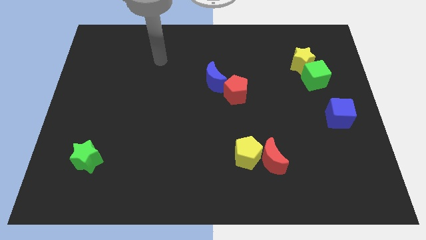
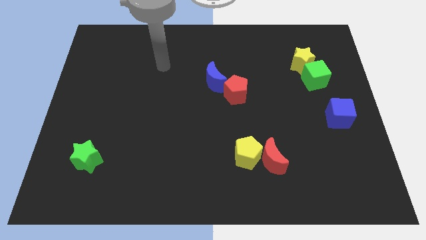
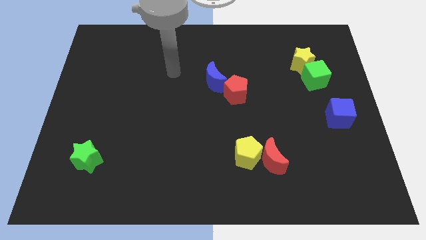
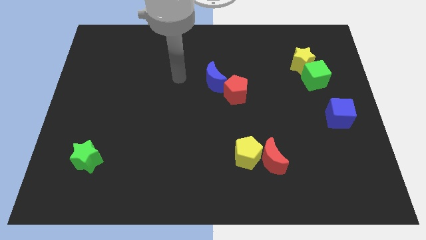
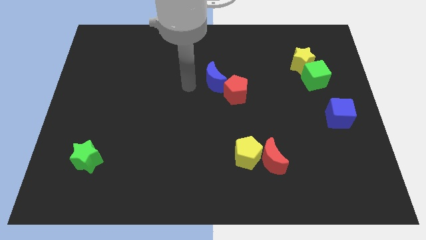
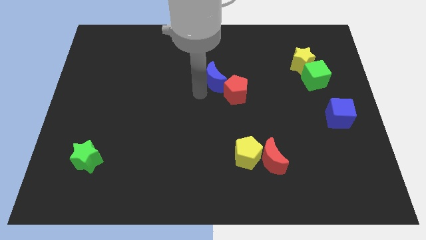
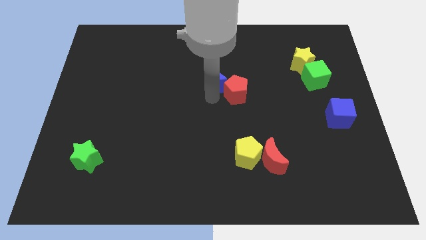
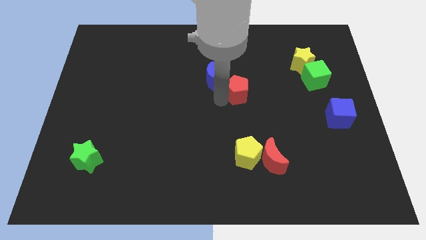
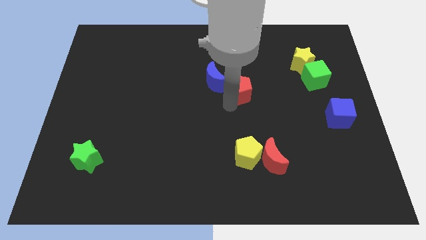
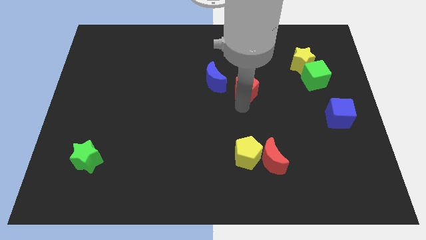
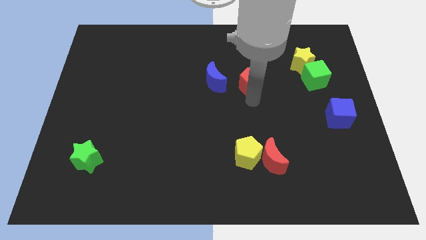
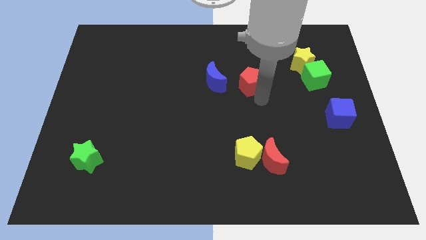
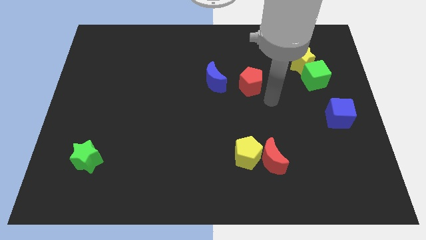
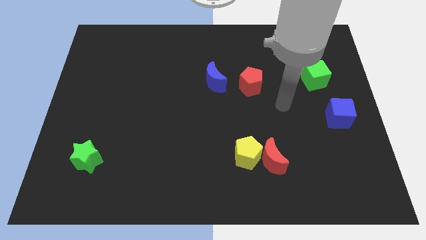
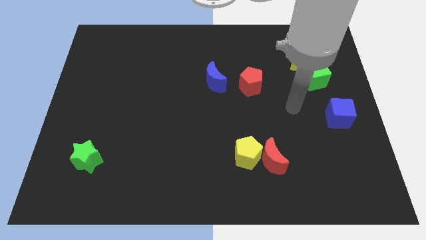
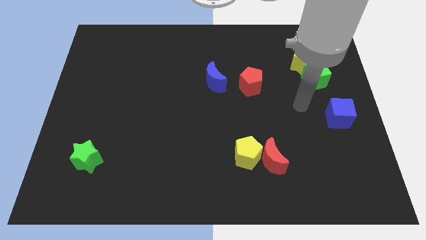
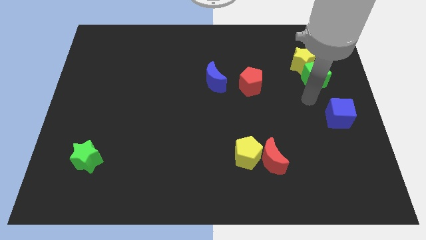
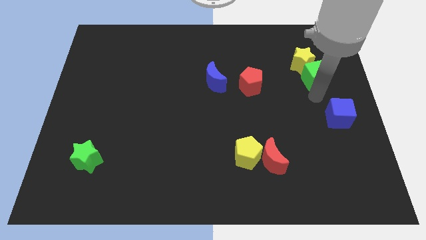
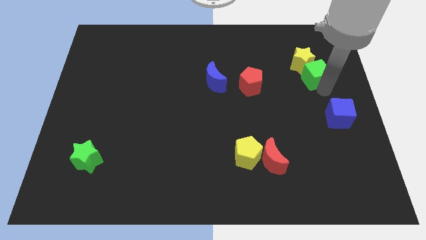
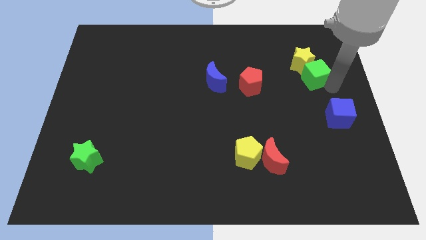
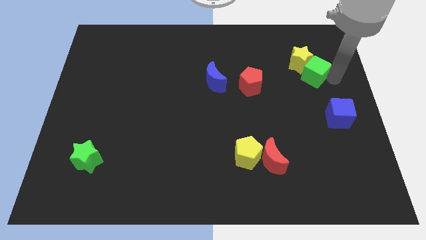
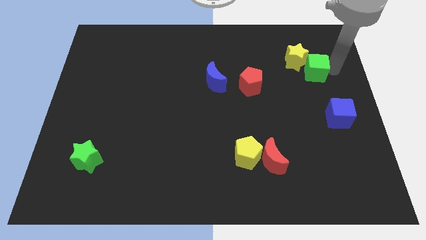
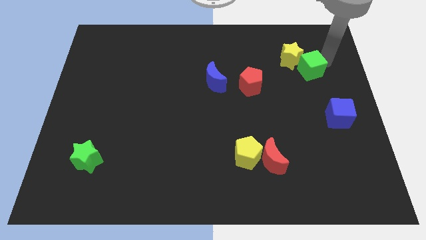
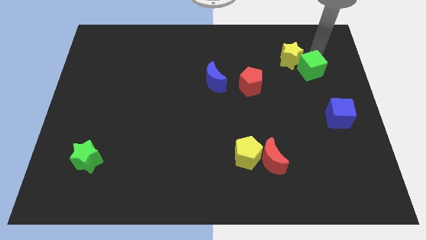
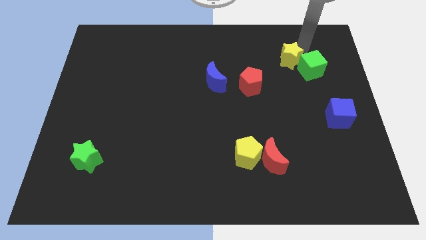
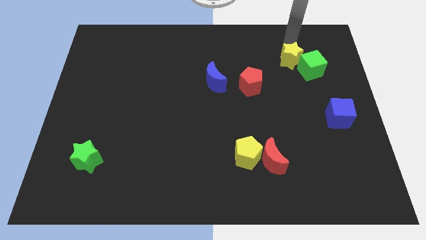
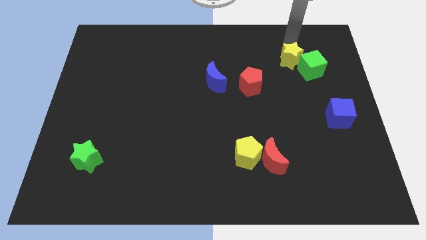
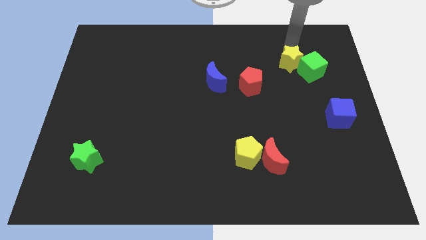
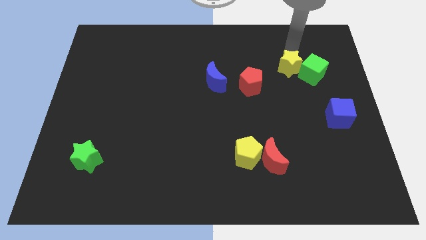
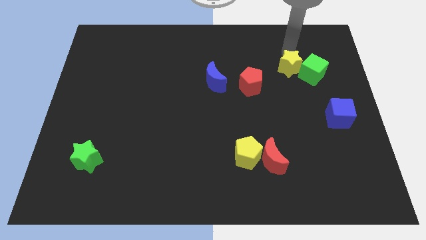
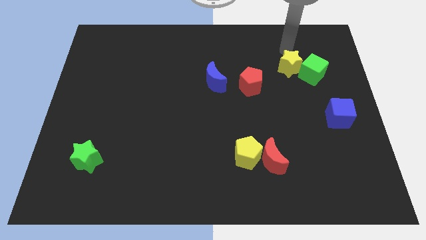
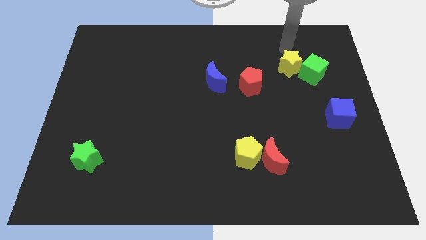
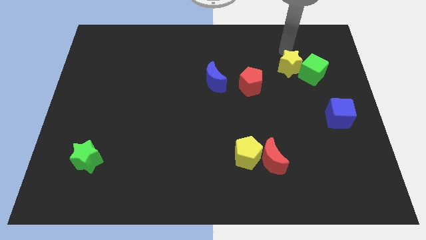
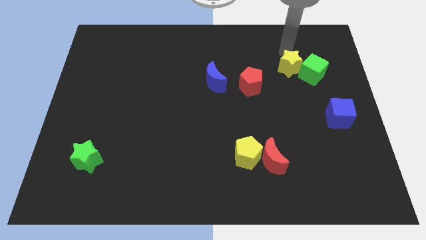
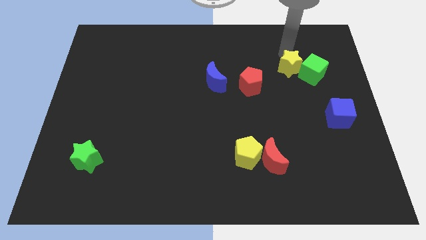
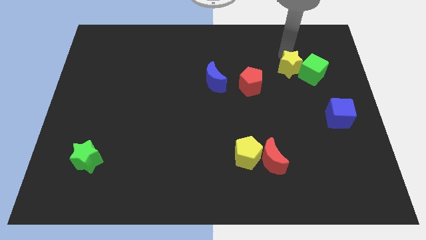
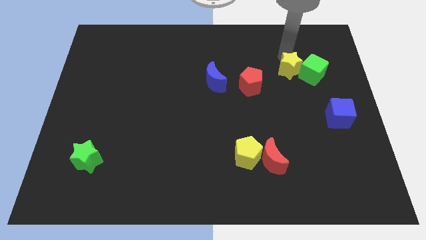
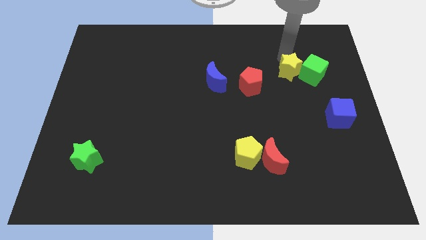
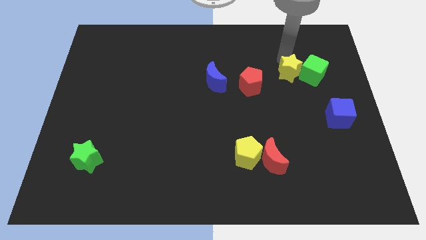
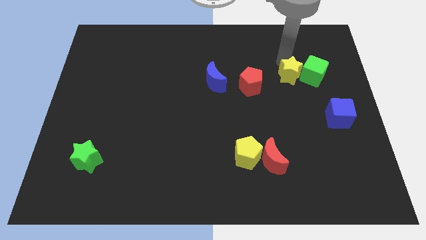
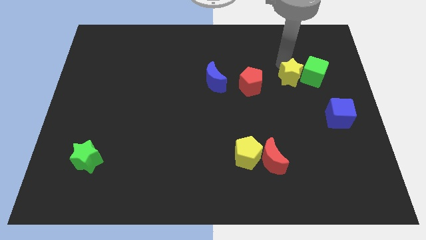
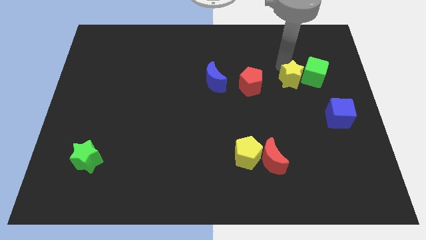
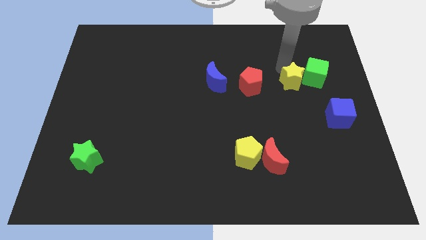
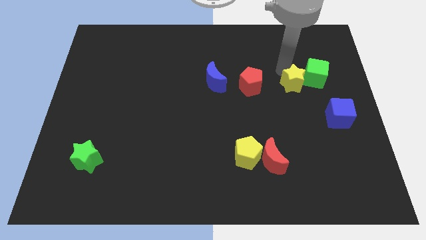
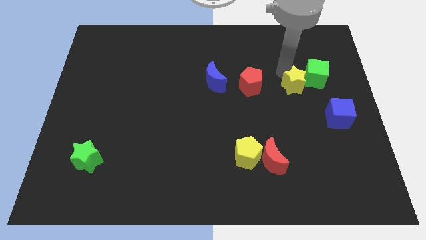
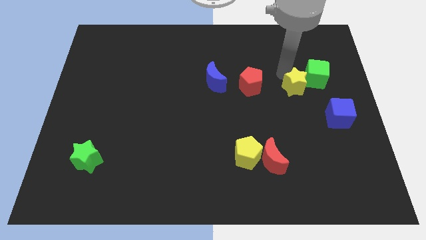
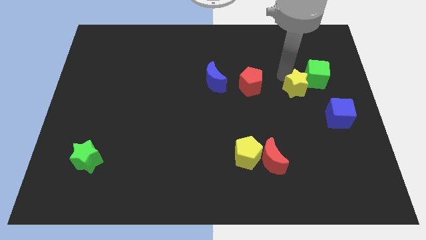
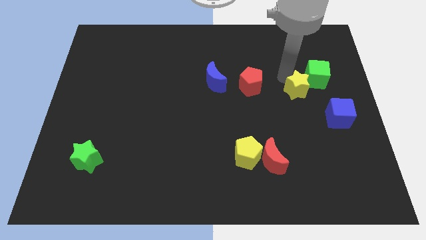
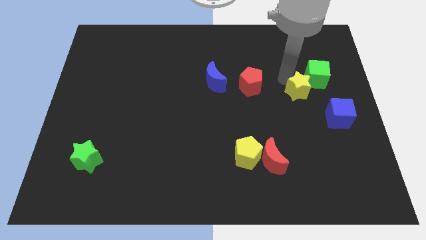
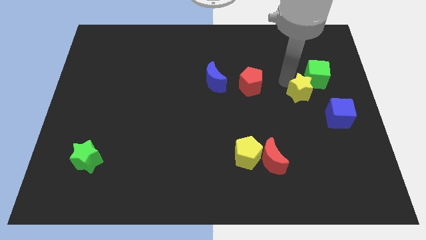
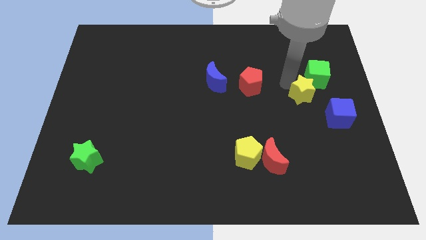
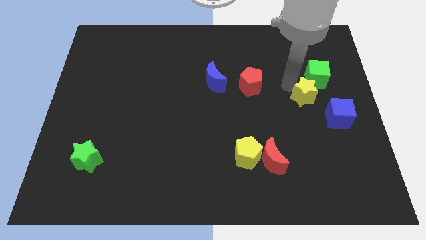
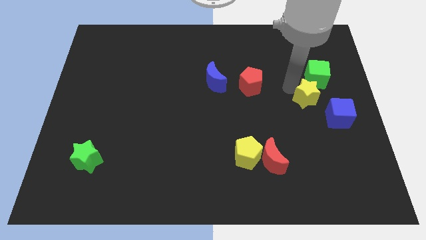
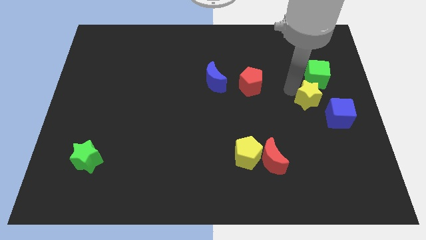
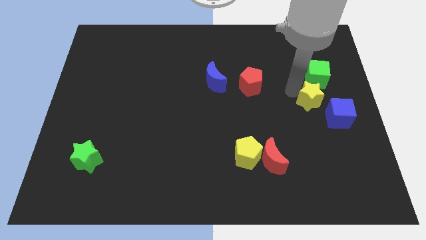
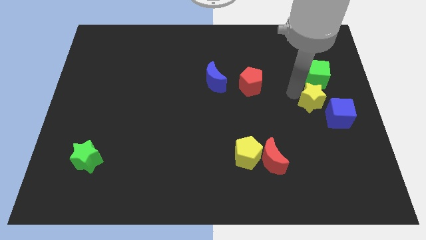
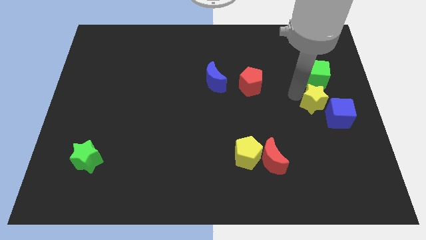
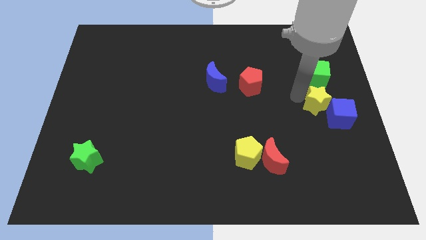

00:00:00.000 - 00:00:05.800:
slide the yellow star towards the blue cube

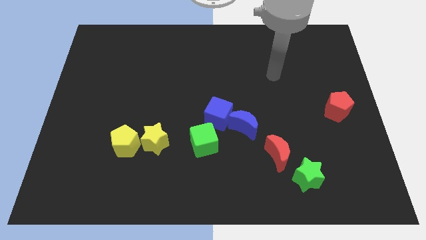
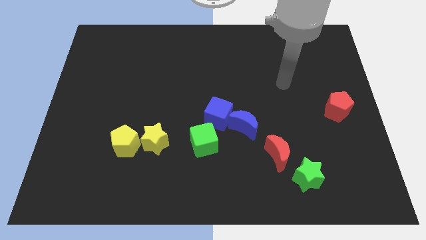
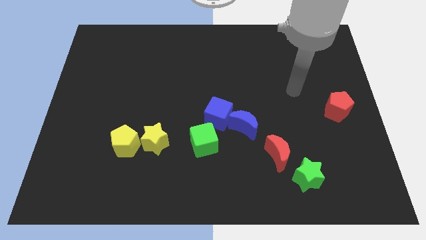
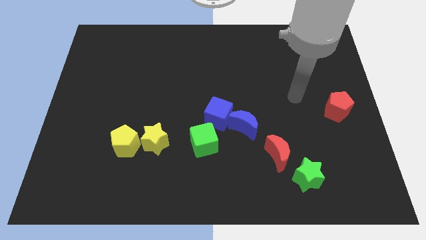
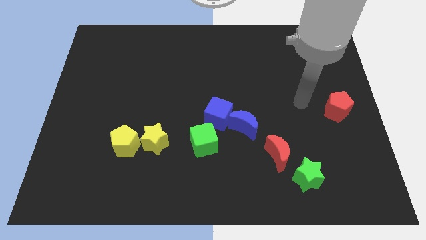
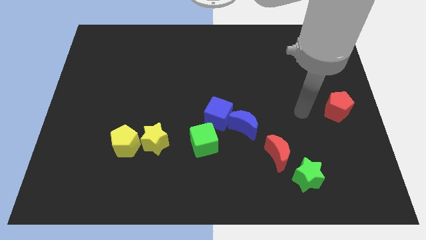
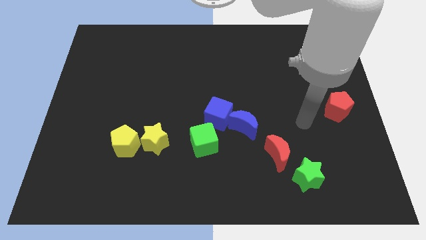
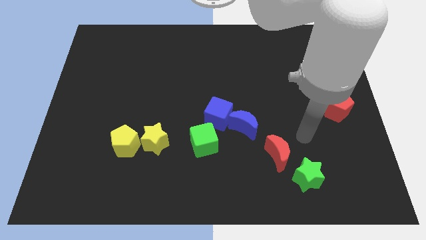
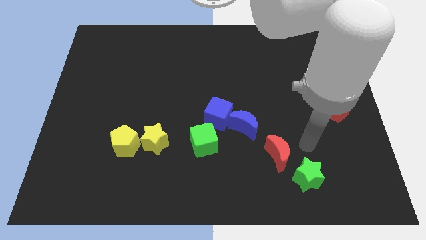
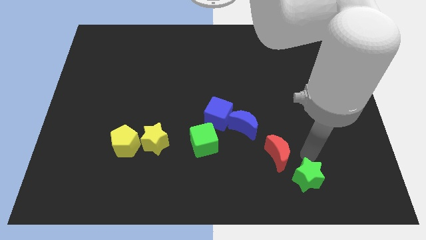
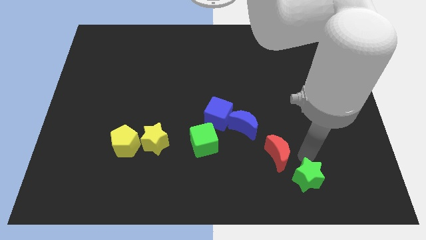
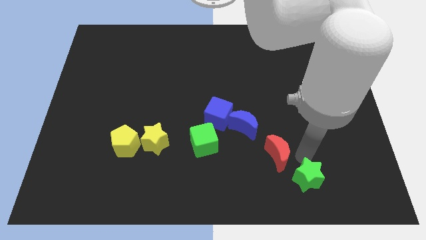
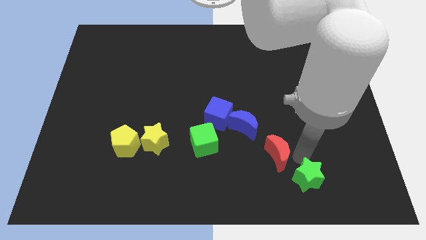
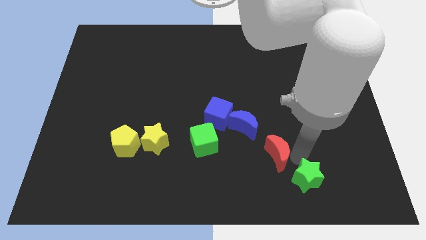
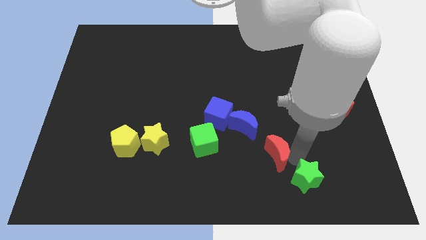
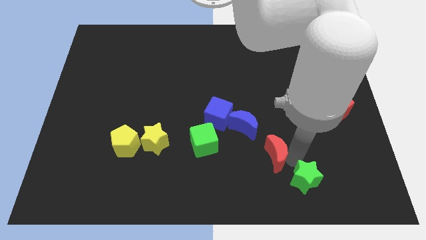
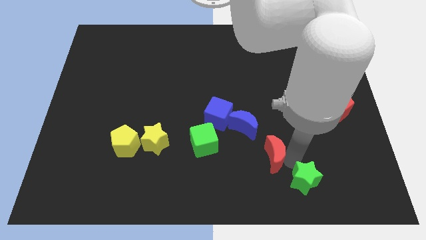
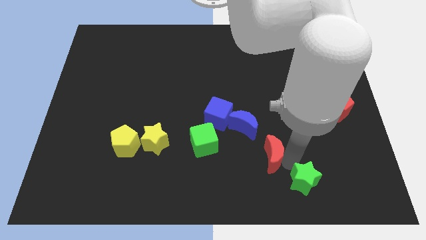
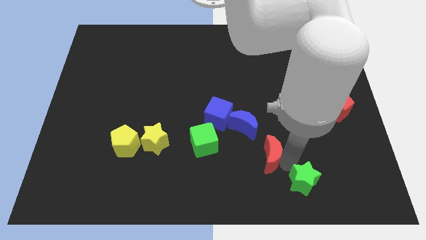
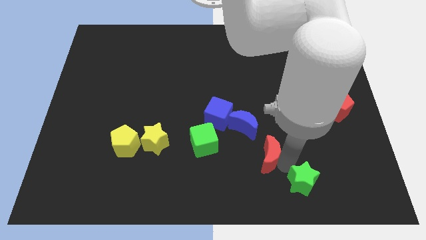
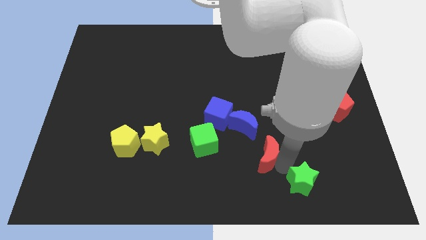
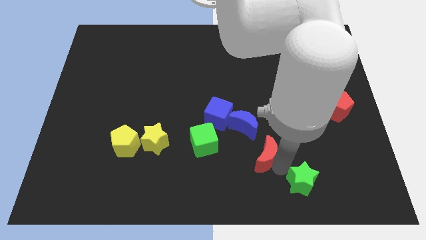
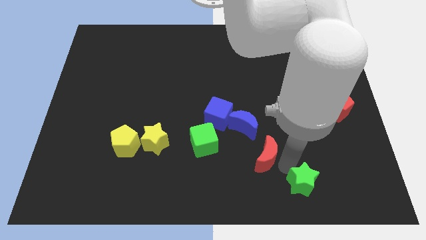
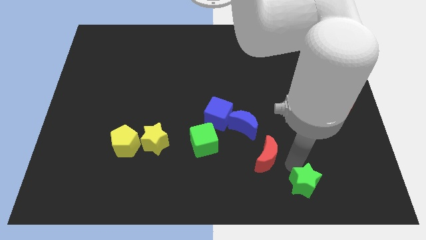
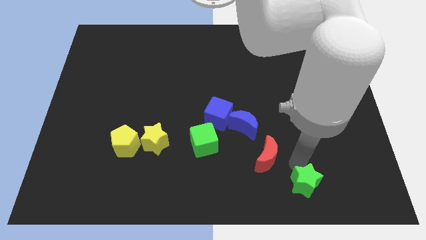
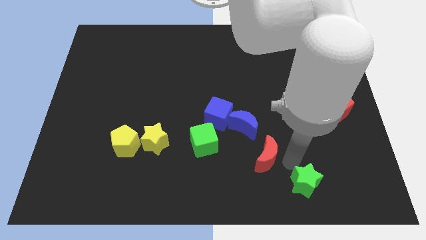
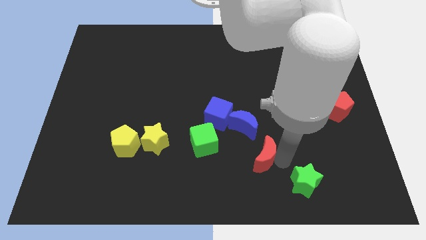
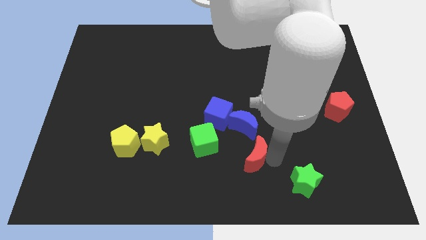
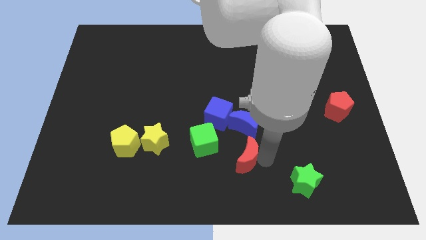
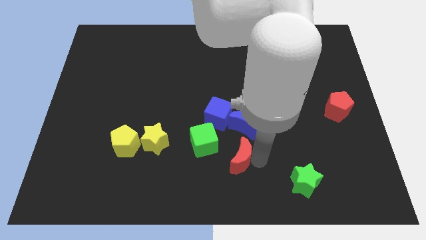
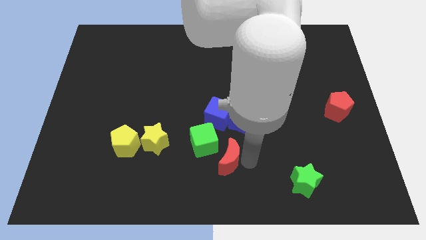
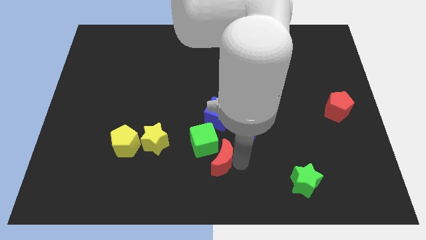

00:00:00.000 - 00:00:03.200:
put the red moon to the green cube
